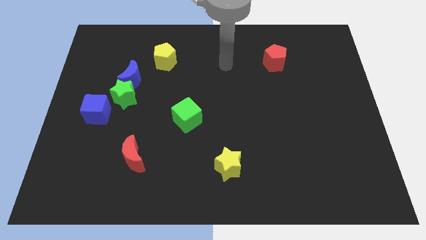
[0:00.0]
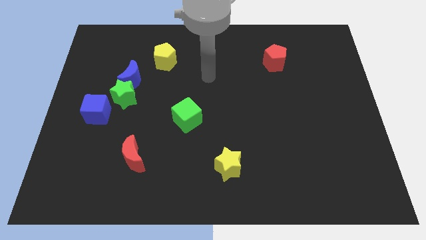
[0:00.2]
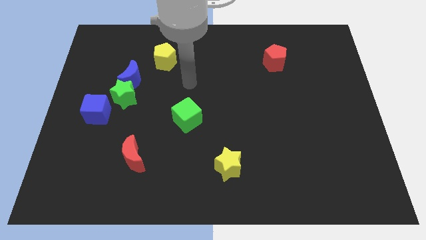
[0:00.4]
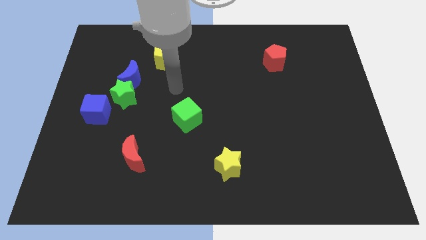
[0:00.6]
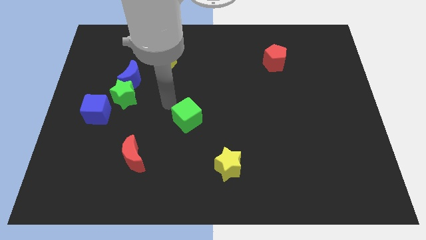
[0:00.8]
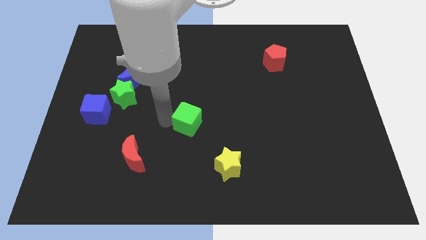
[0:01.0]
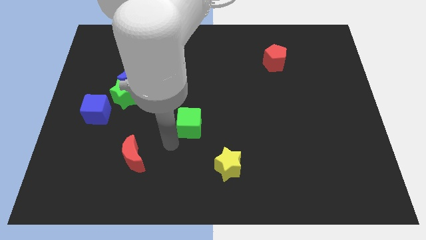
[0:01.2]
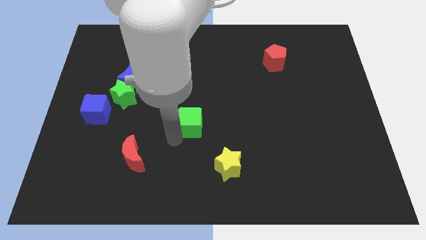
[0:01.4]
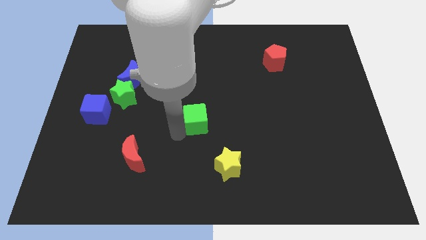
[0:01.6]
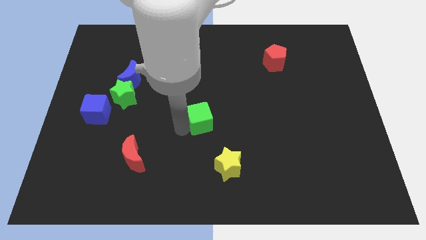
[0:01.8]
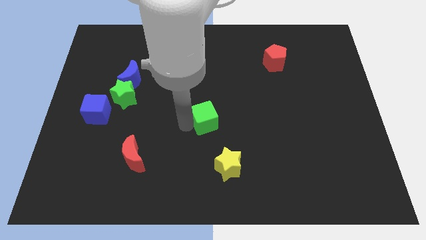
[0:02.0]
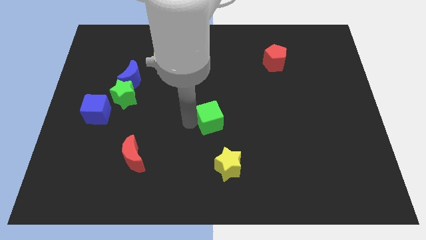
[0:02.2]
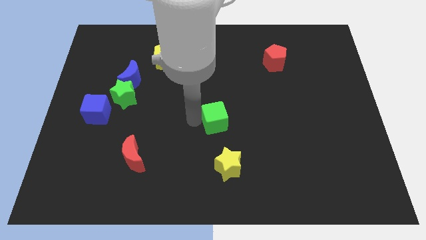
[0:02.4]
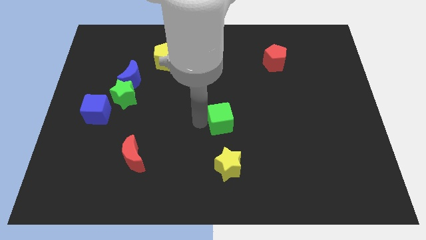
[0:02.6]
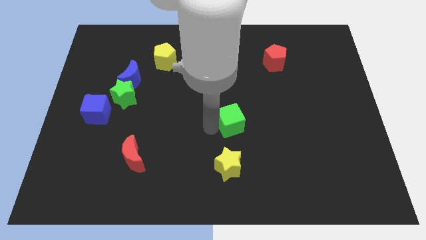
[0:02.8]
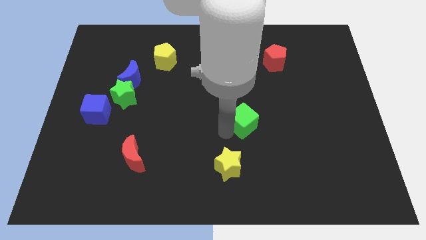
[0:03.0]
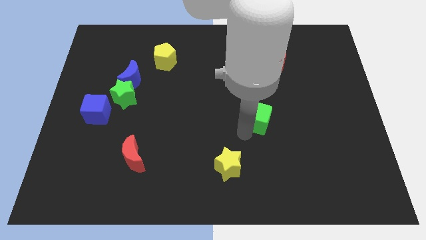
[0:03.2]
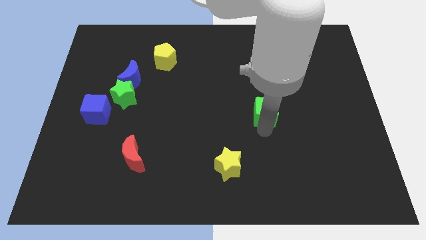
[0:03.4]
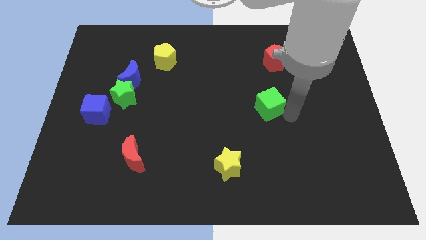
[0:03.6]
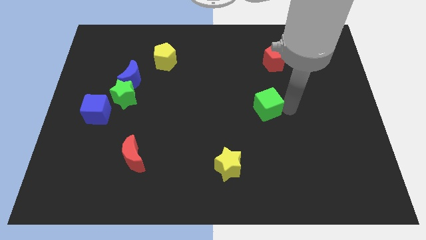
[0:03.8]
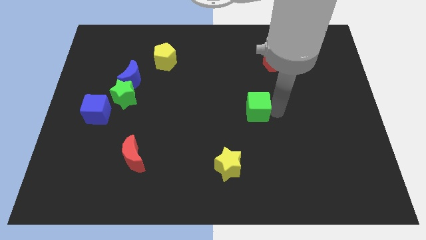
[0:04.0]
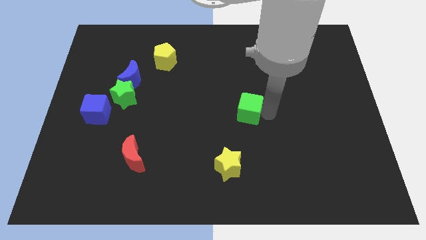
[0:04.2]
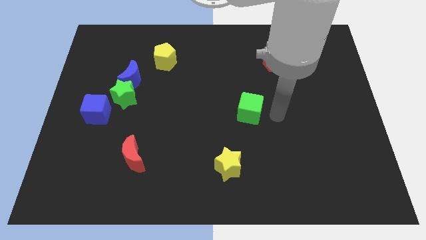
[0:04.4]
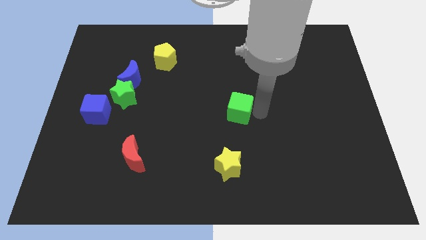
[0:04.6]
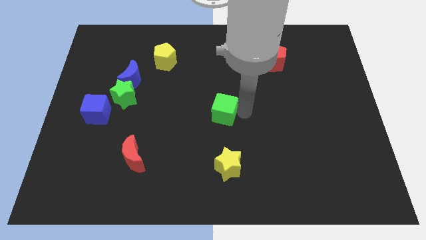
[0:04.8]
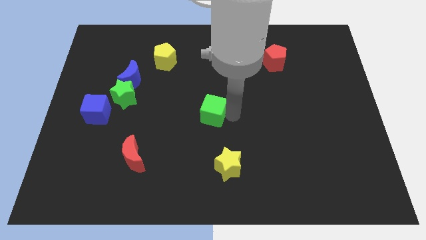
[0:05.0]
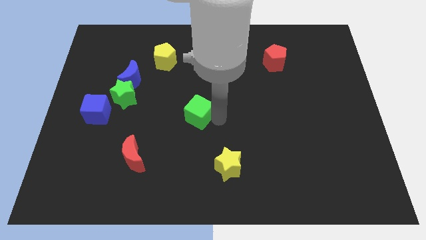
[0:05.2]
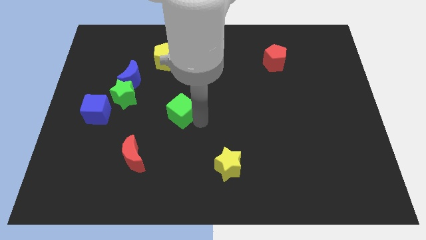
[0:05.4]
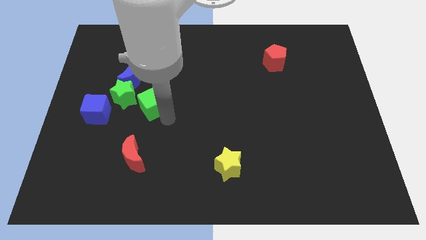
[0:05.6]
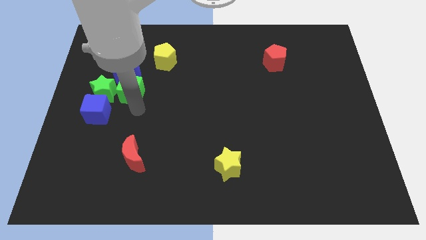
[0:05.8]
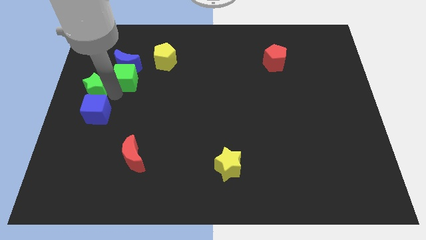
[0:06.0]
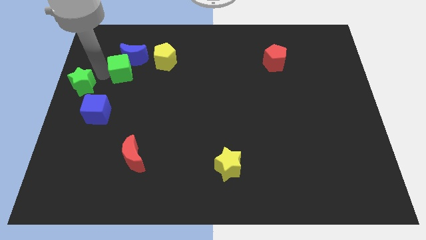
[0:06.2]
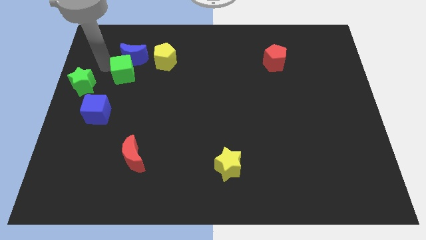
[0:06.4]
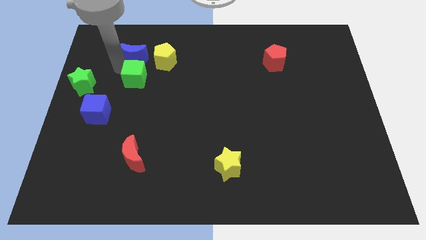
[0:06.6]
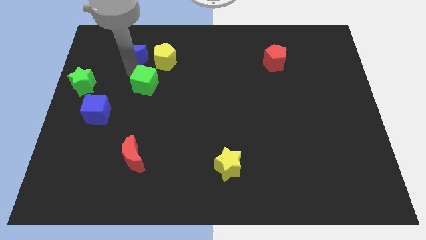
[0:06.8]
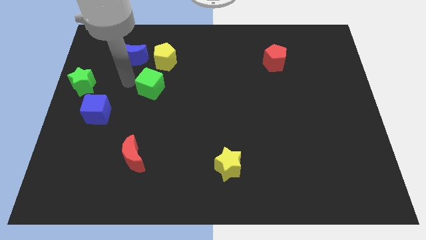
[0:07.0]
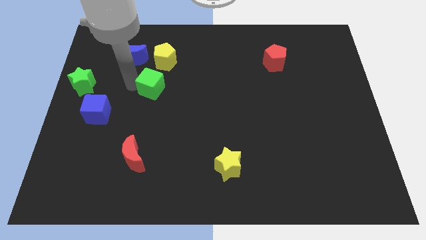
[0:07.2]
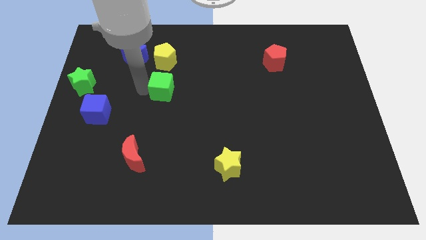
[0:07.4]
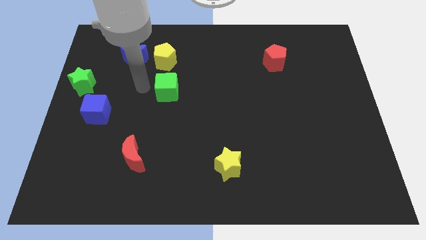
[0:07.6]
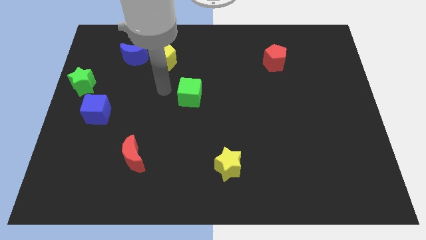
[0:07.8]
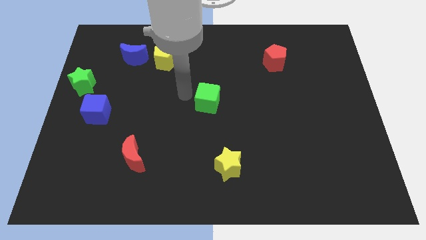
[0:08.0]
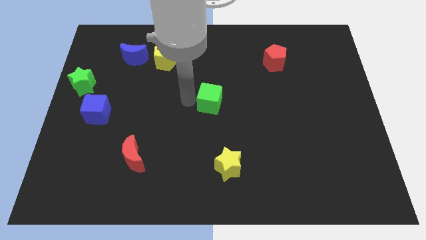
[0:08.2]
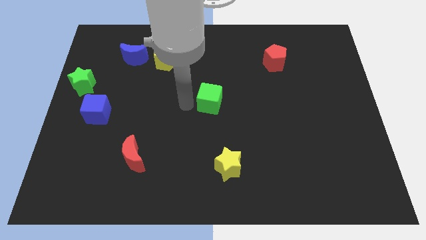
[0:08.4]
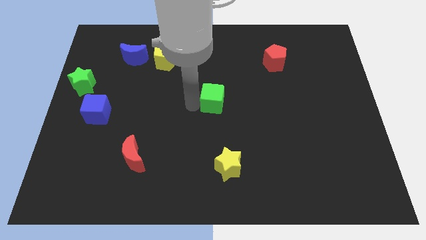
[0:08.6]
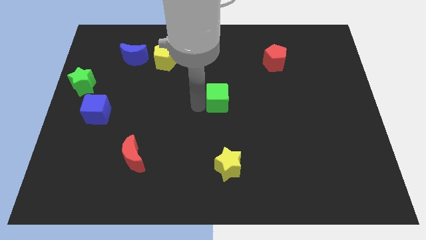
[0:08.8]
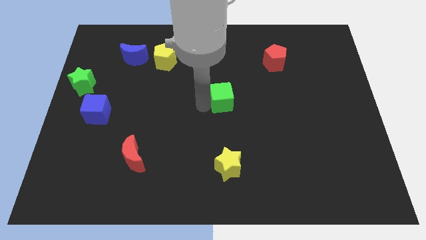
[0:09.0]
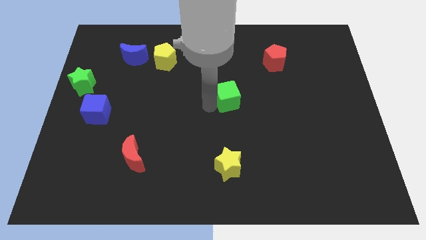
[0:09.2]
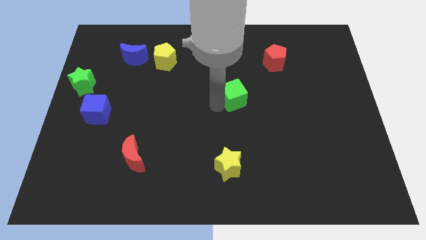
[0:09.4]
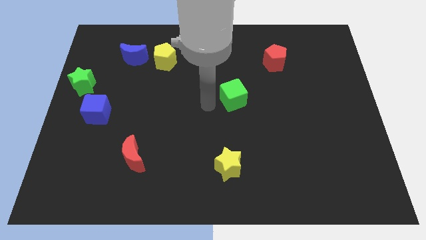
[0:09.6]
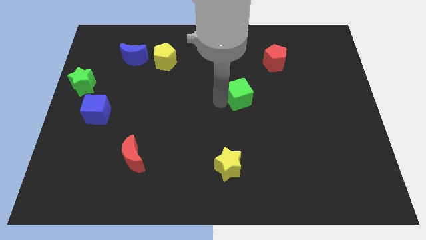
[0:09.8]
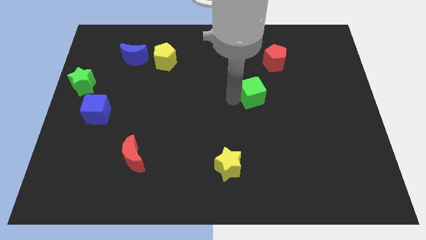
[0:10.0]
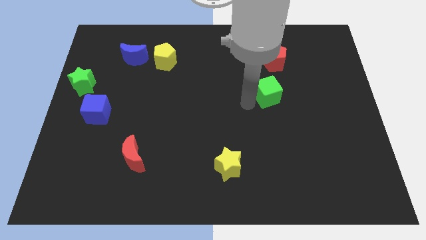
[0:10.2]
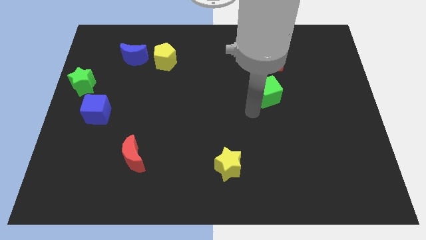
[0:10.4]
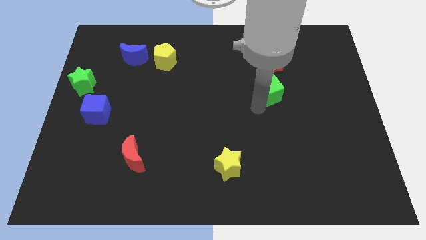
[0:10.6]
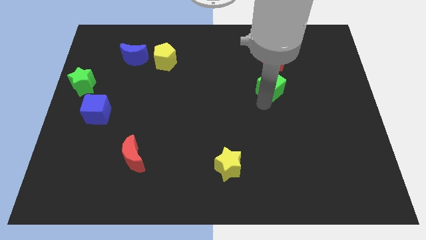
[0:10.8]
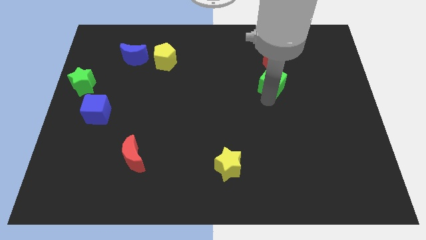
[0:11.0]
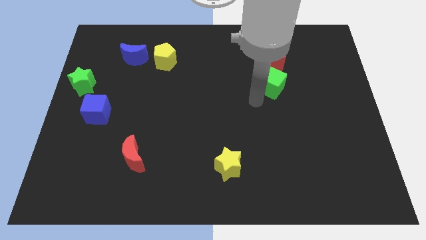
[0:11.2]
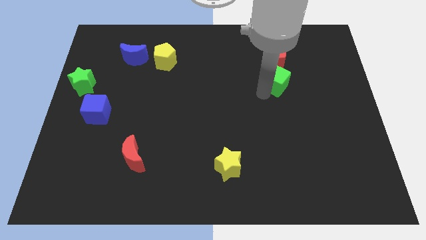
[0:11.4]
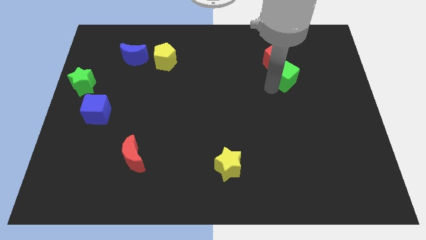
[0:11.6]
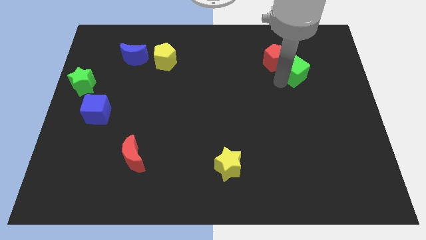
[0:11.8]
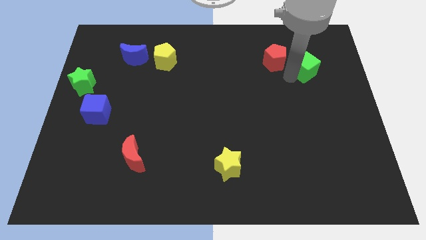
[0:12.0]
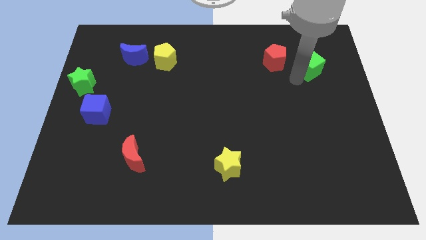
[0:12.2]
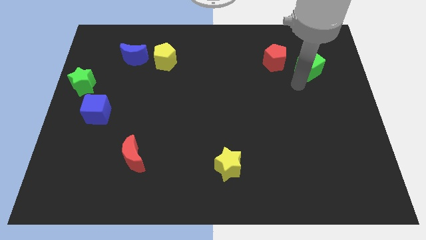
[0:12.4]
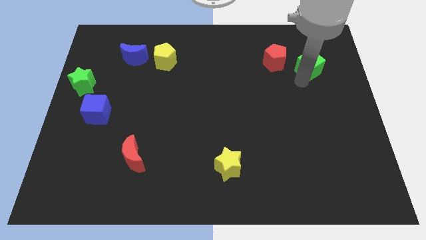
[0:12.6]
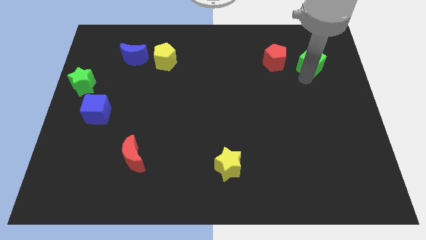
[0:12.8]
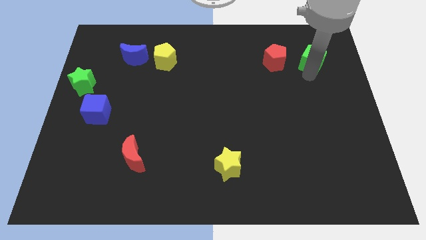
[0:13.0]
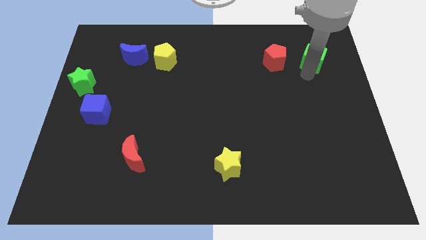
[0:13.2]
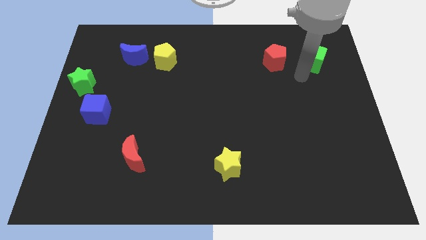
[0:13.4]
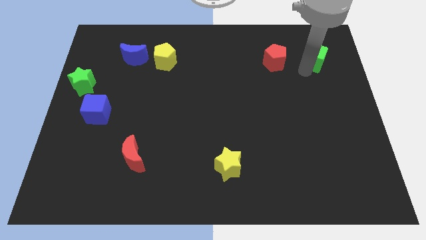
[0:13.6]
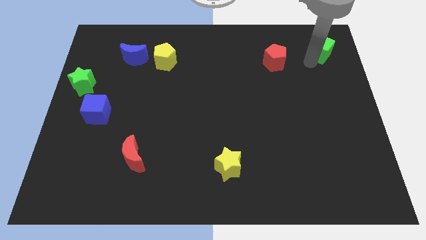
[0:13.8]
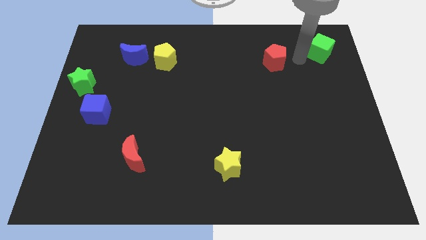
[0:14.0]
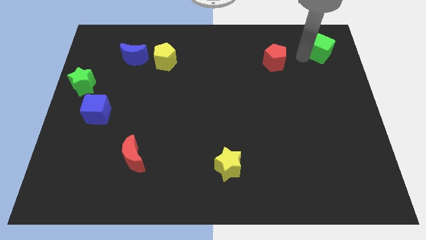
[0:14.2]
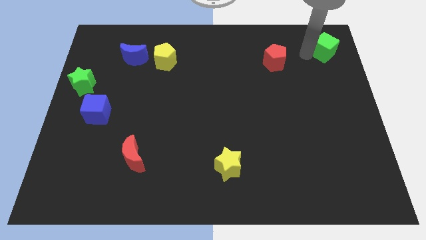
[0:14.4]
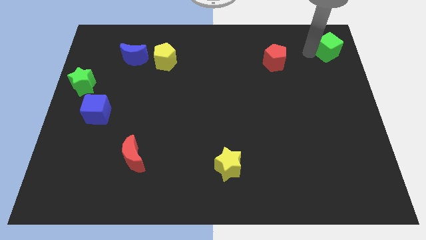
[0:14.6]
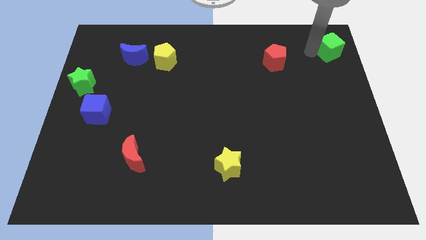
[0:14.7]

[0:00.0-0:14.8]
slide the green cube to the top right corner
